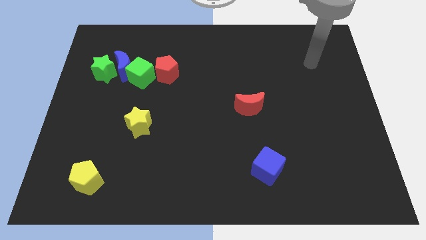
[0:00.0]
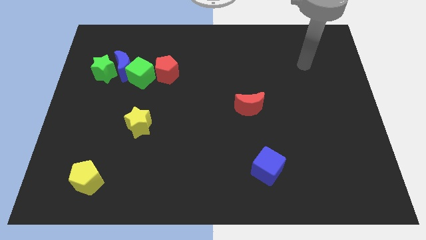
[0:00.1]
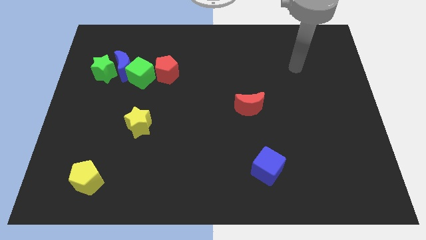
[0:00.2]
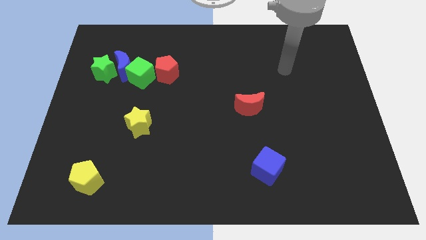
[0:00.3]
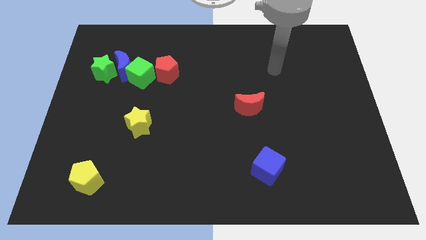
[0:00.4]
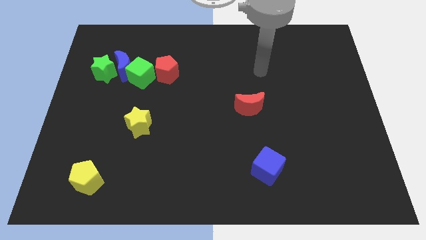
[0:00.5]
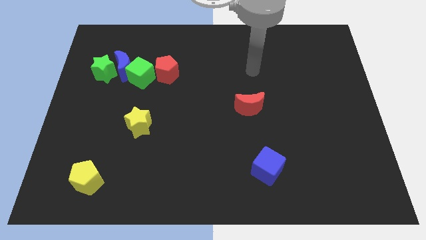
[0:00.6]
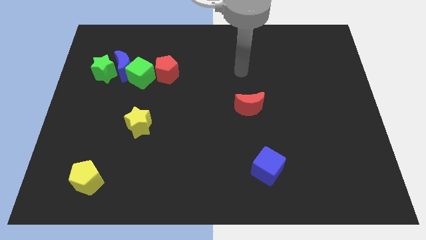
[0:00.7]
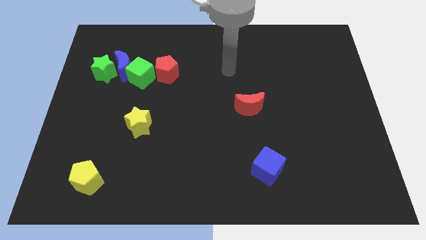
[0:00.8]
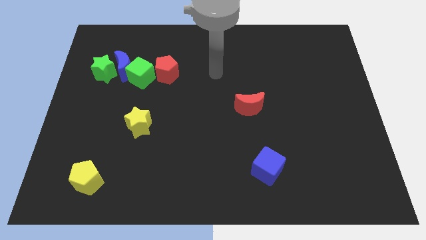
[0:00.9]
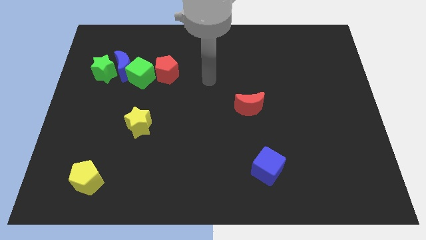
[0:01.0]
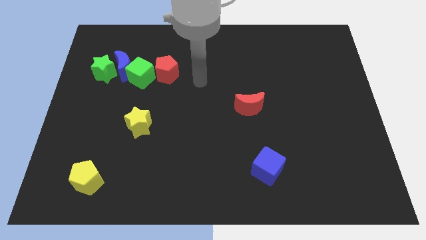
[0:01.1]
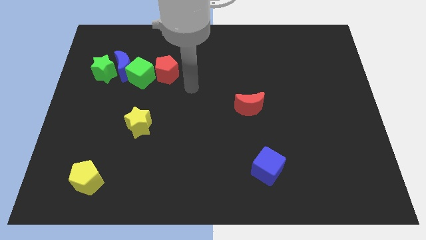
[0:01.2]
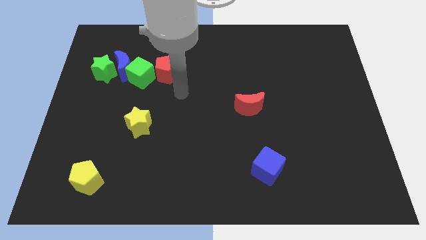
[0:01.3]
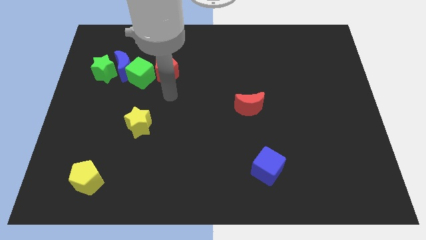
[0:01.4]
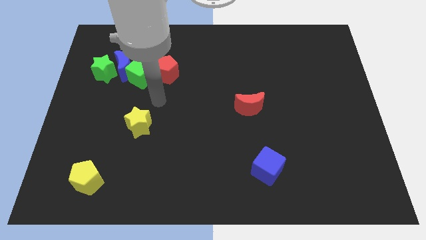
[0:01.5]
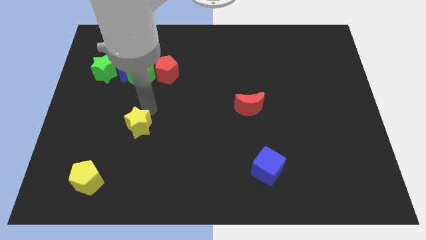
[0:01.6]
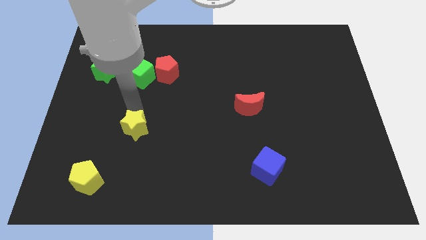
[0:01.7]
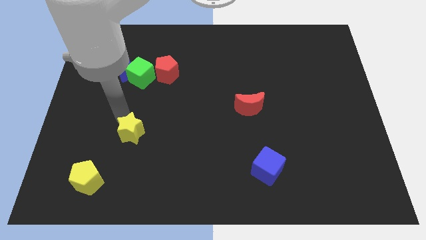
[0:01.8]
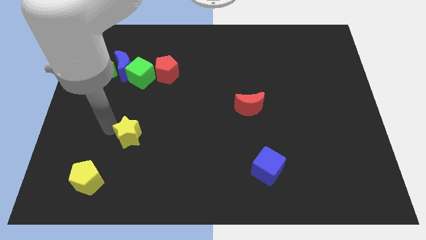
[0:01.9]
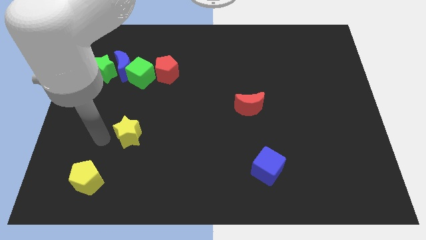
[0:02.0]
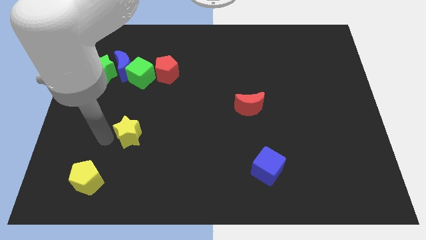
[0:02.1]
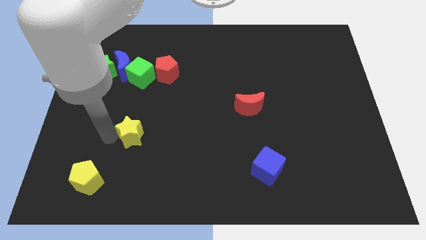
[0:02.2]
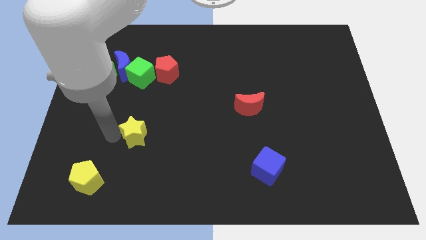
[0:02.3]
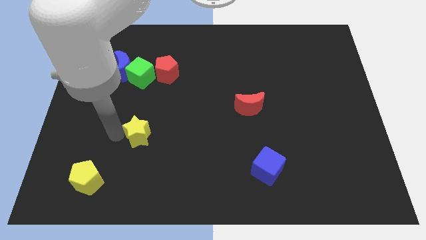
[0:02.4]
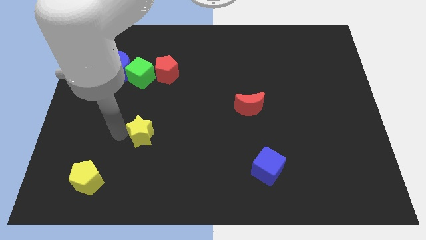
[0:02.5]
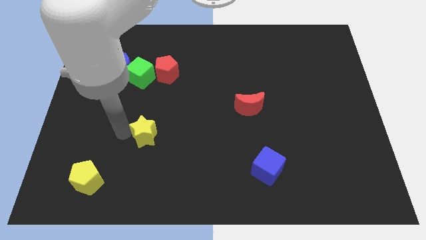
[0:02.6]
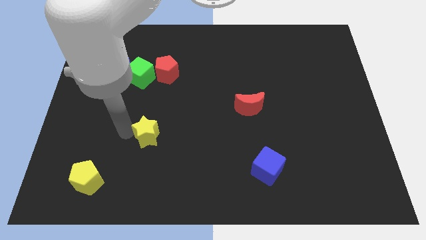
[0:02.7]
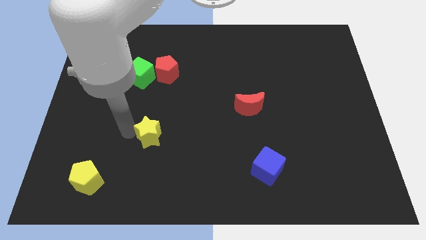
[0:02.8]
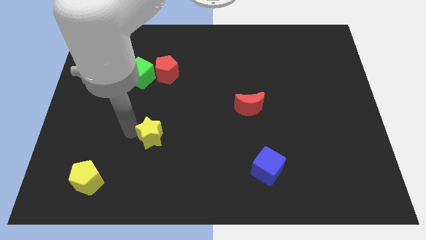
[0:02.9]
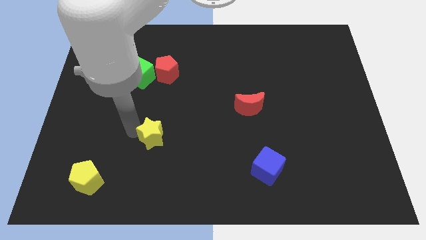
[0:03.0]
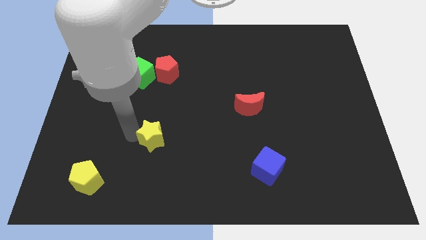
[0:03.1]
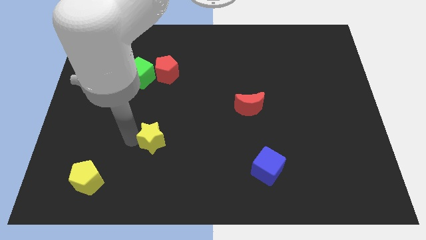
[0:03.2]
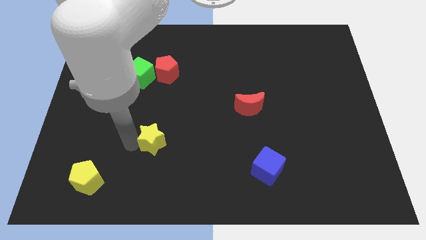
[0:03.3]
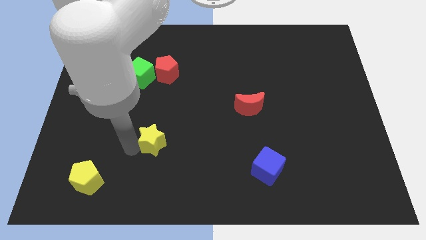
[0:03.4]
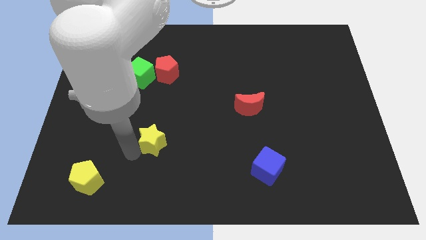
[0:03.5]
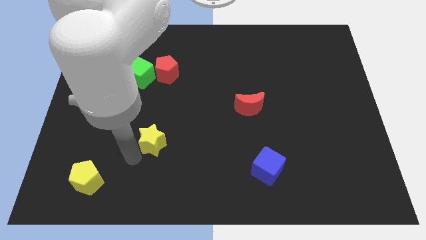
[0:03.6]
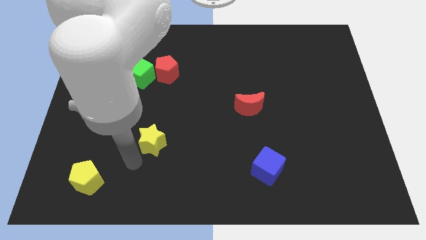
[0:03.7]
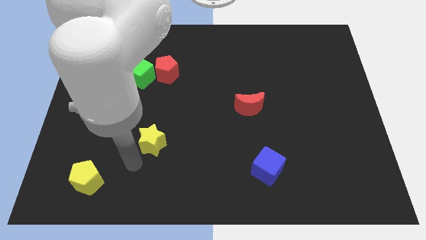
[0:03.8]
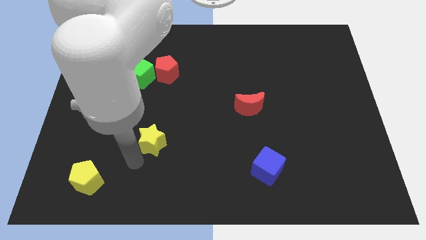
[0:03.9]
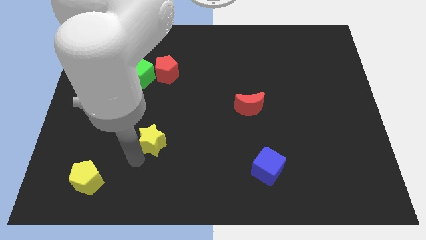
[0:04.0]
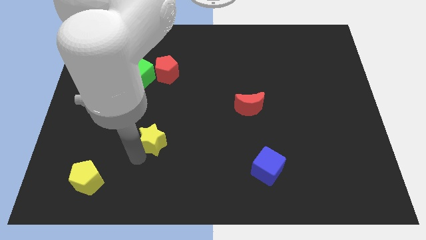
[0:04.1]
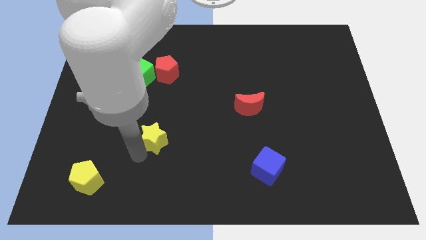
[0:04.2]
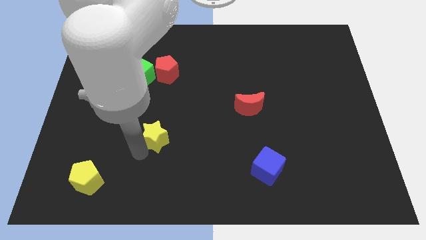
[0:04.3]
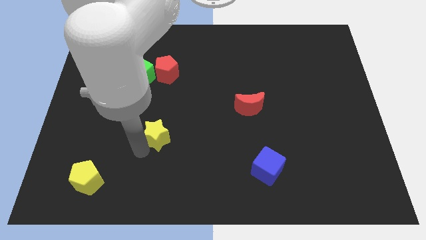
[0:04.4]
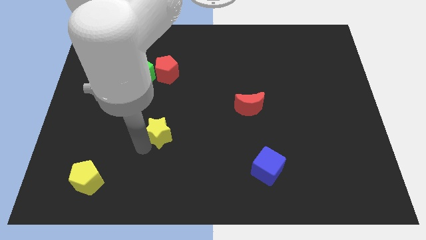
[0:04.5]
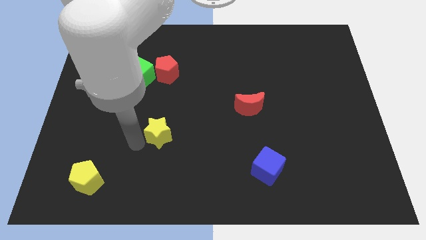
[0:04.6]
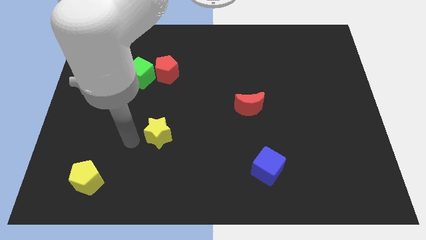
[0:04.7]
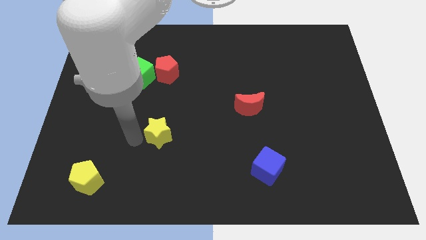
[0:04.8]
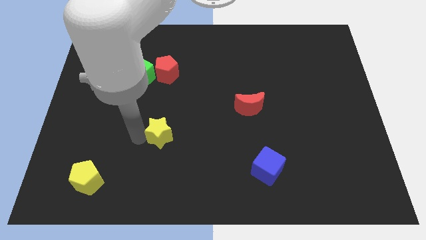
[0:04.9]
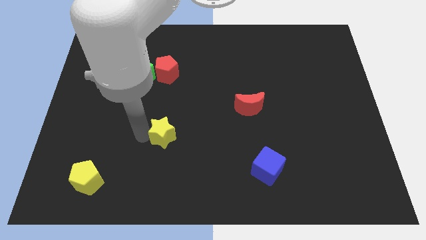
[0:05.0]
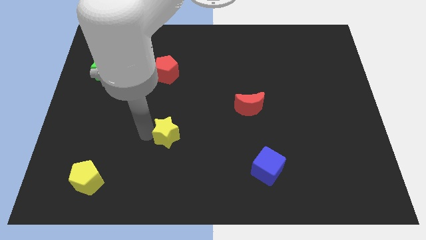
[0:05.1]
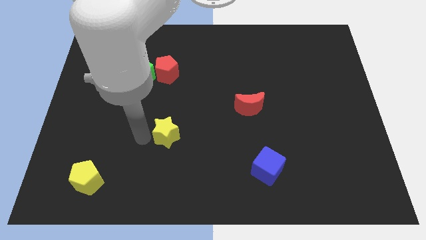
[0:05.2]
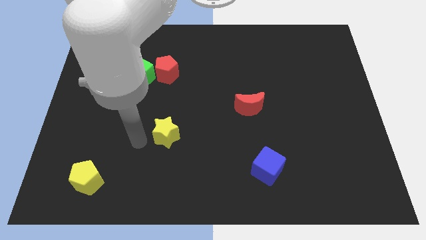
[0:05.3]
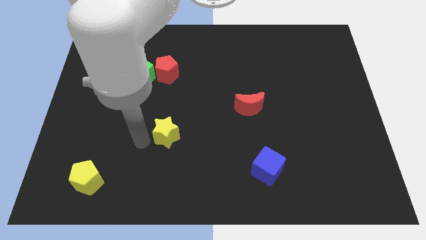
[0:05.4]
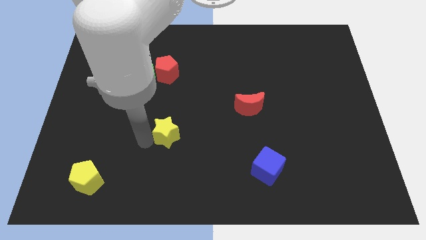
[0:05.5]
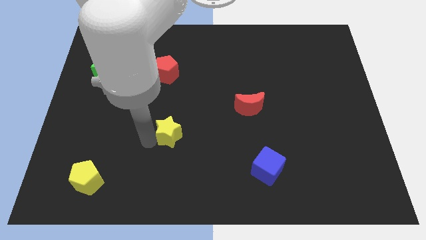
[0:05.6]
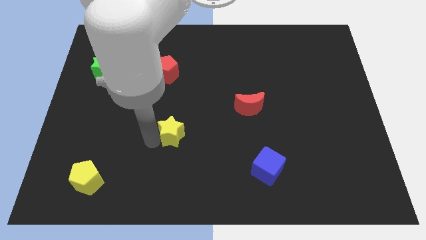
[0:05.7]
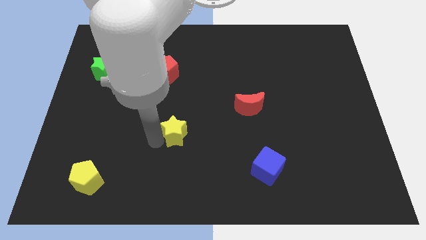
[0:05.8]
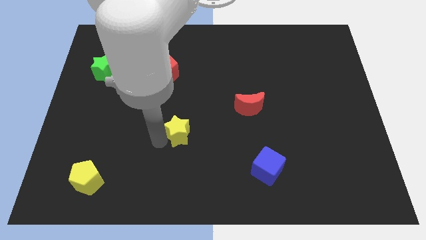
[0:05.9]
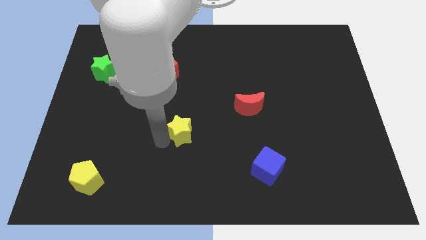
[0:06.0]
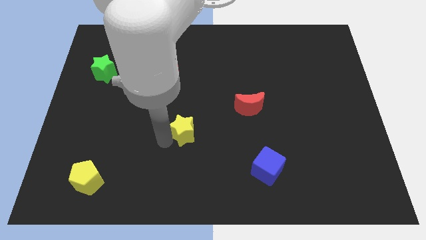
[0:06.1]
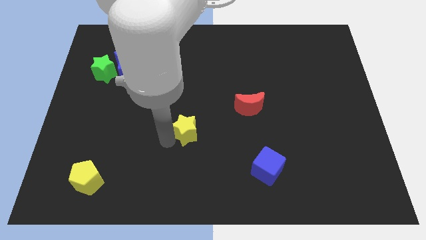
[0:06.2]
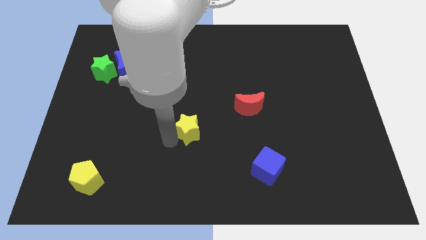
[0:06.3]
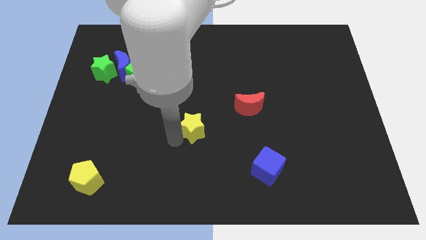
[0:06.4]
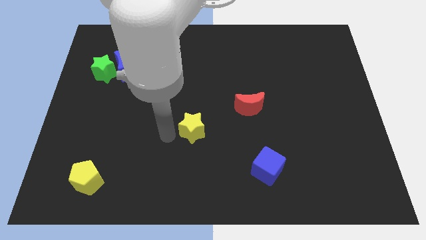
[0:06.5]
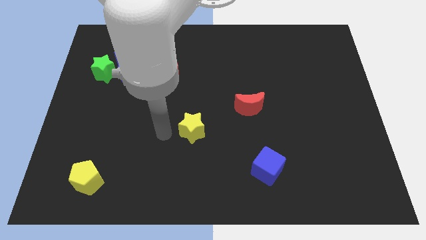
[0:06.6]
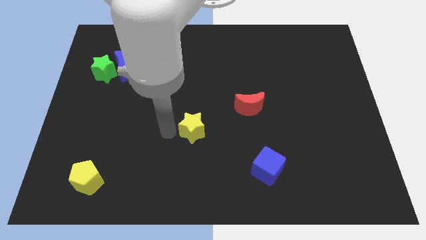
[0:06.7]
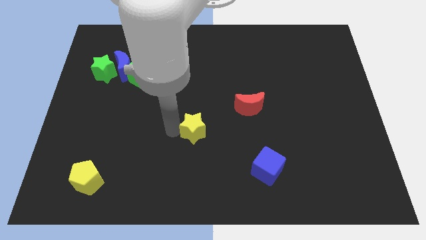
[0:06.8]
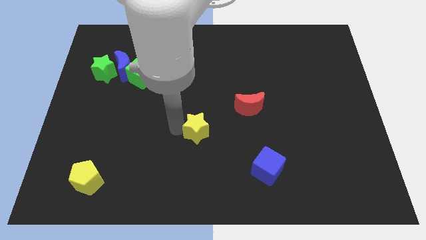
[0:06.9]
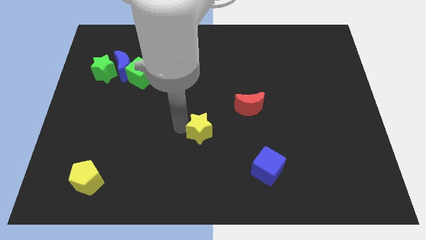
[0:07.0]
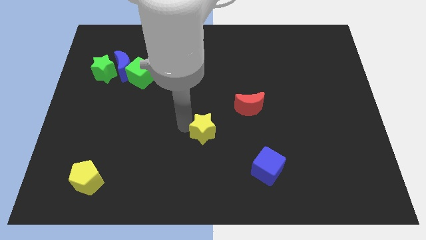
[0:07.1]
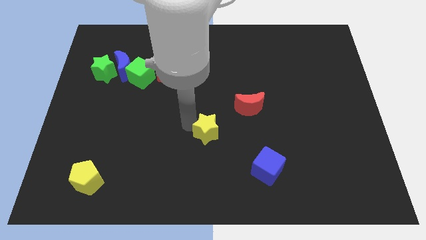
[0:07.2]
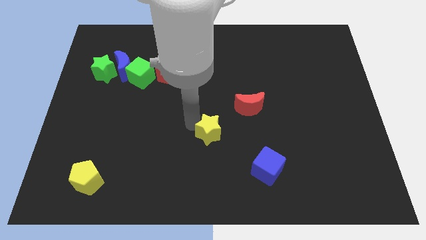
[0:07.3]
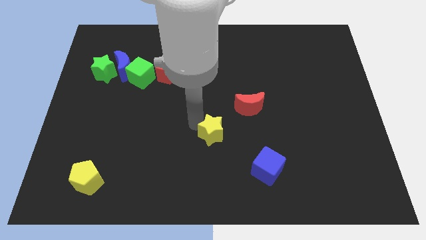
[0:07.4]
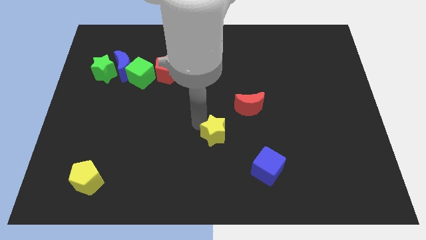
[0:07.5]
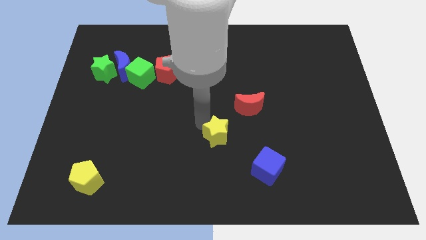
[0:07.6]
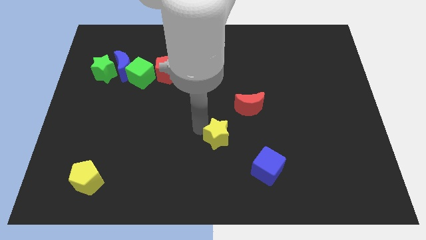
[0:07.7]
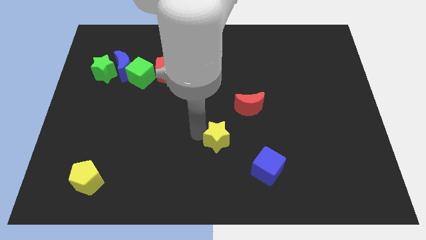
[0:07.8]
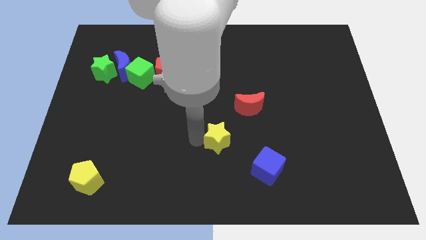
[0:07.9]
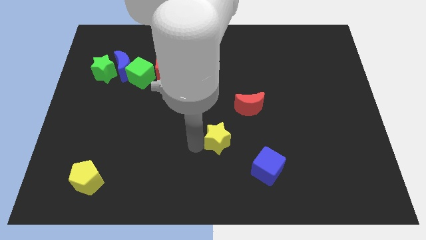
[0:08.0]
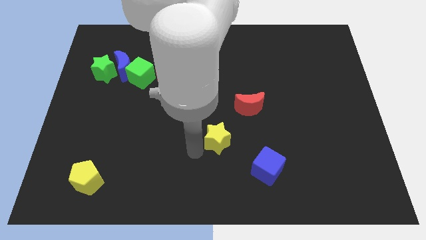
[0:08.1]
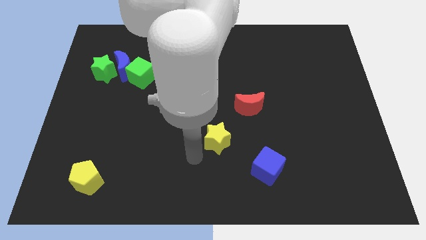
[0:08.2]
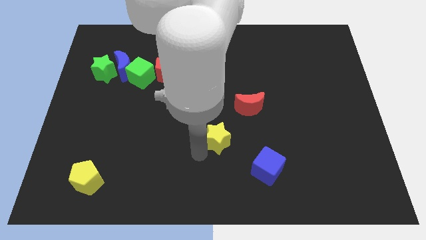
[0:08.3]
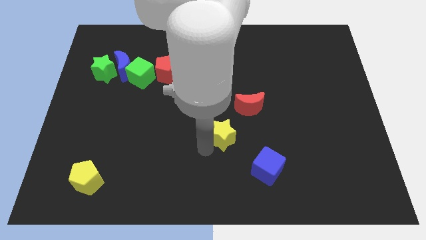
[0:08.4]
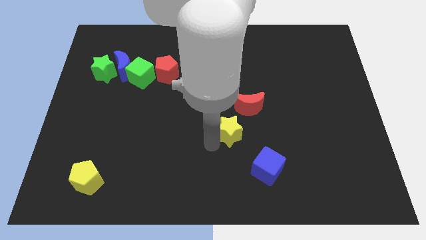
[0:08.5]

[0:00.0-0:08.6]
move the yellow star to the right
